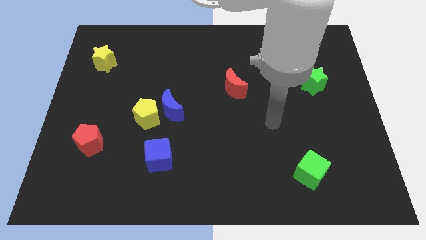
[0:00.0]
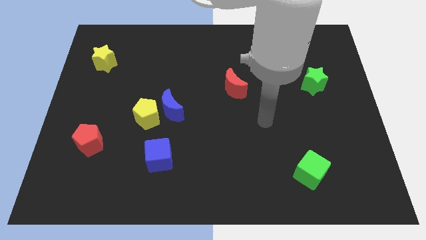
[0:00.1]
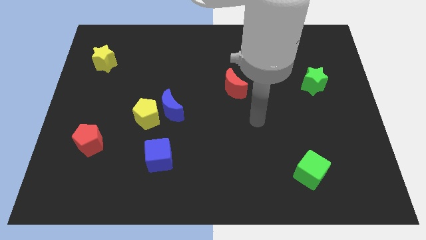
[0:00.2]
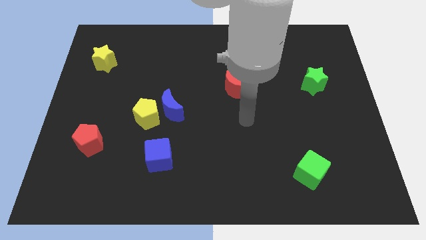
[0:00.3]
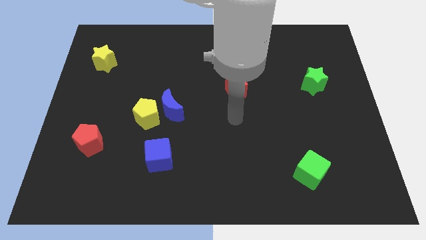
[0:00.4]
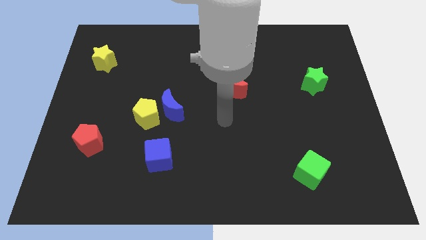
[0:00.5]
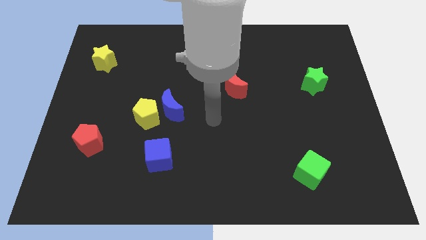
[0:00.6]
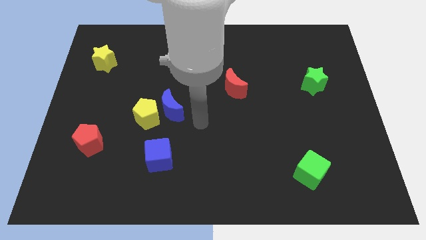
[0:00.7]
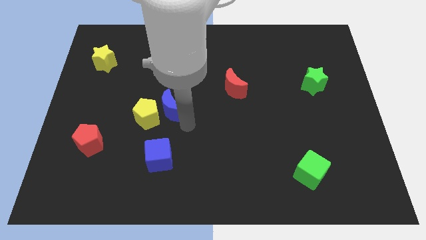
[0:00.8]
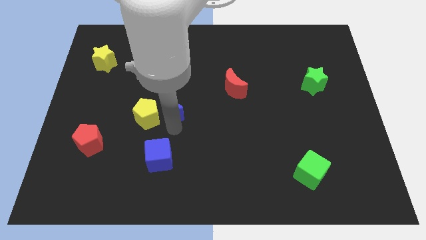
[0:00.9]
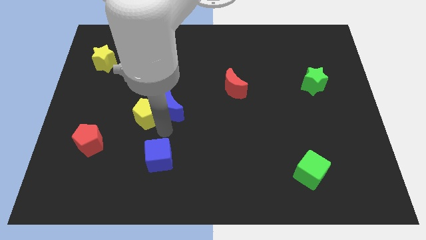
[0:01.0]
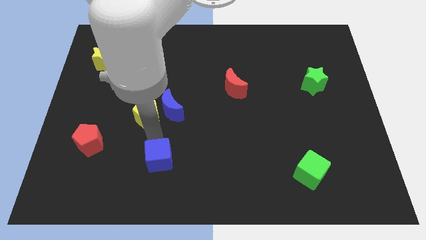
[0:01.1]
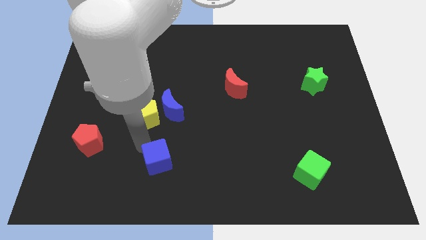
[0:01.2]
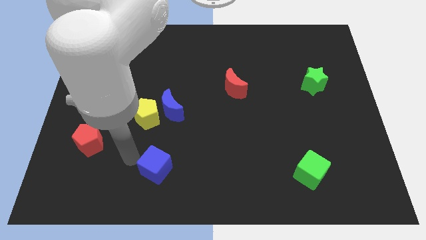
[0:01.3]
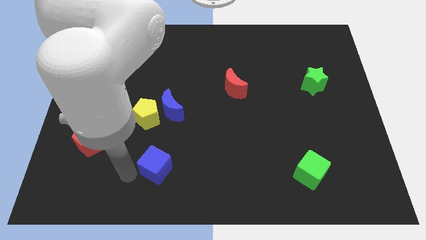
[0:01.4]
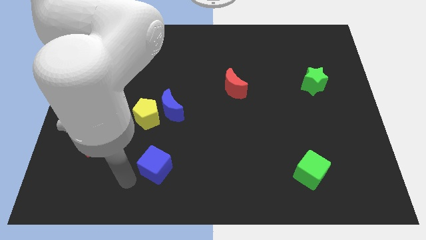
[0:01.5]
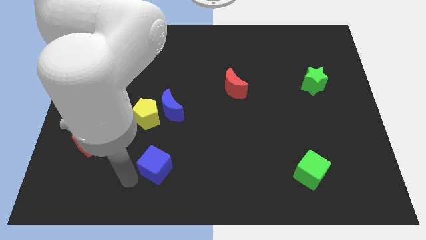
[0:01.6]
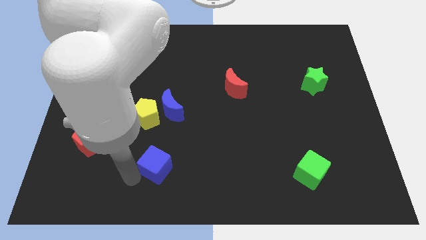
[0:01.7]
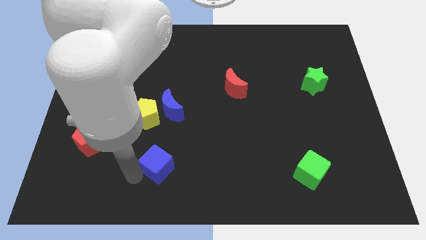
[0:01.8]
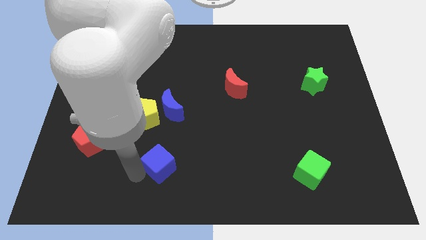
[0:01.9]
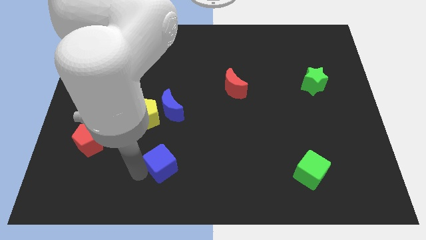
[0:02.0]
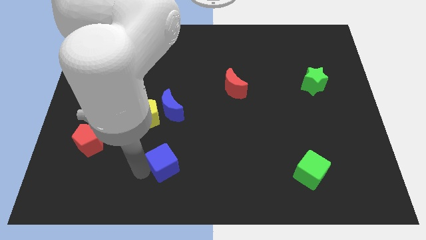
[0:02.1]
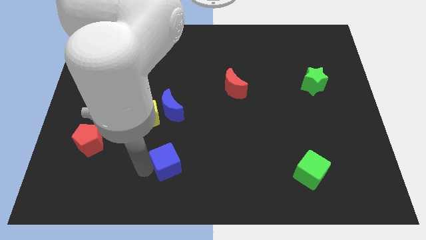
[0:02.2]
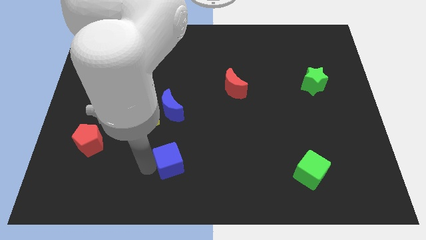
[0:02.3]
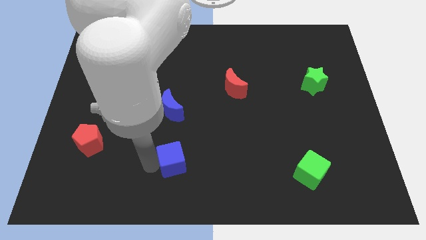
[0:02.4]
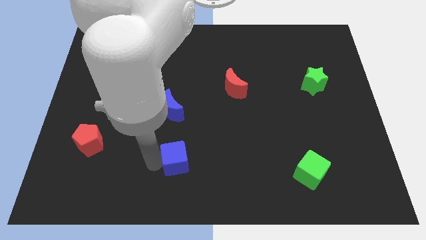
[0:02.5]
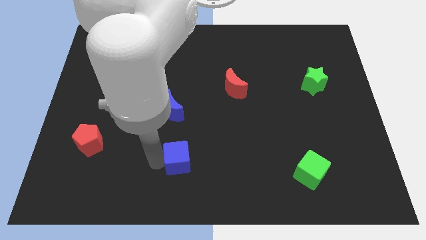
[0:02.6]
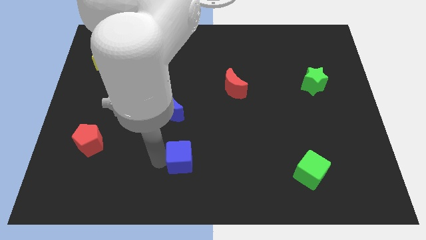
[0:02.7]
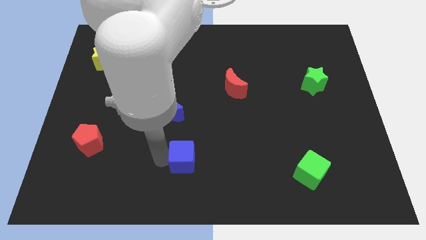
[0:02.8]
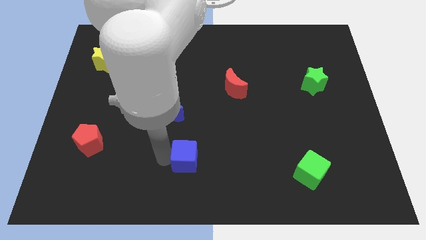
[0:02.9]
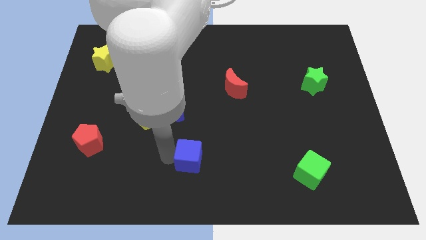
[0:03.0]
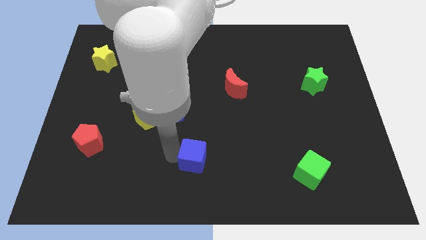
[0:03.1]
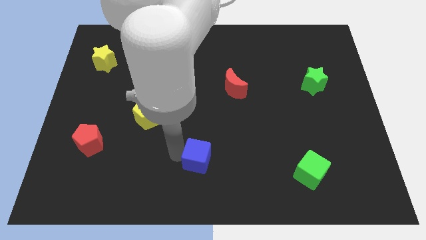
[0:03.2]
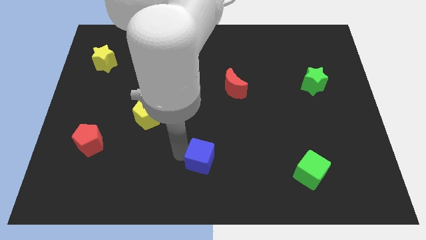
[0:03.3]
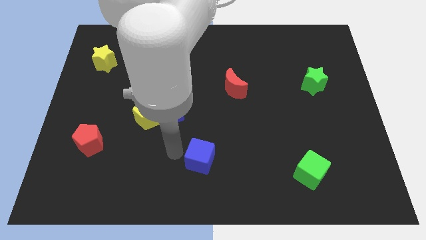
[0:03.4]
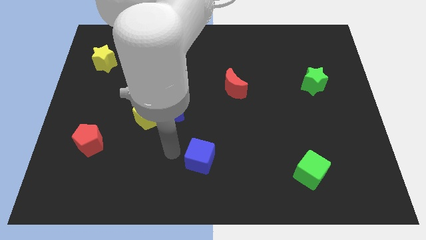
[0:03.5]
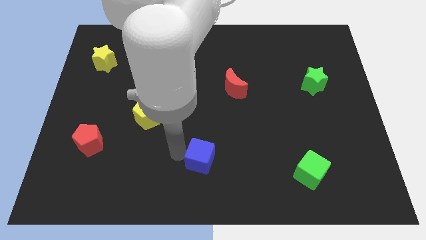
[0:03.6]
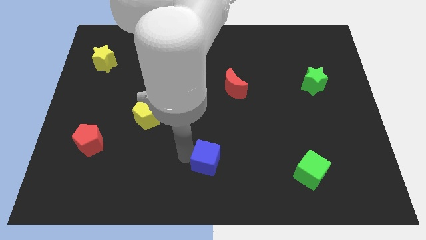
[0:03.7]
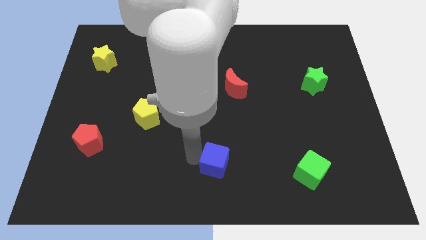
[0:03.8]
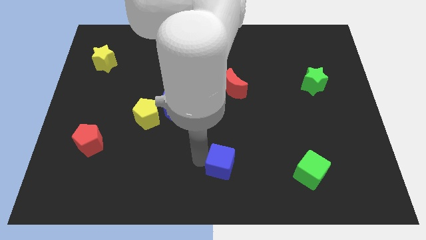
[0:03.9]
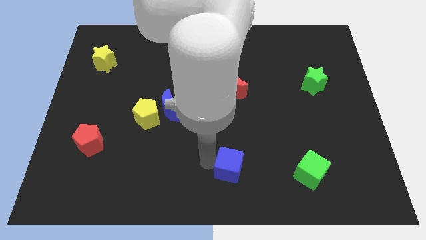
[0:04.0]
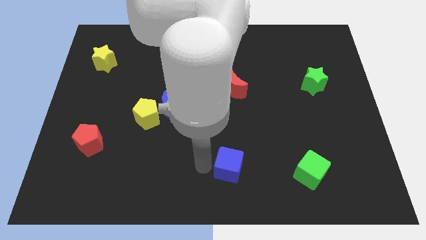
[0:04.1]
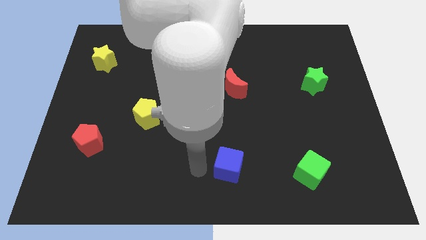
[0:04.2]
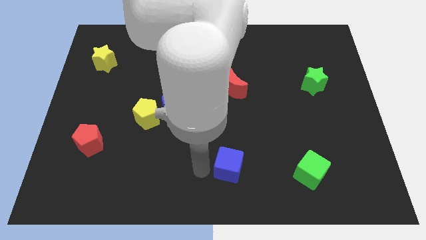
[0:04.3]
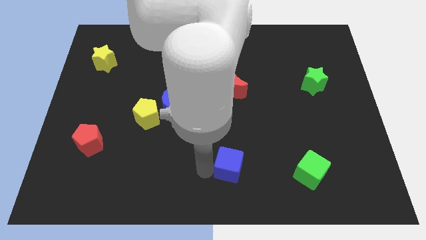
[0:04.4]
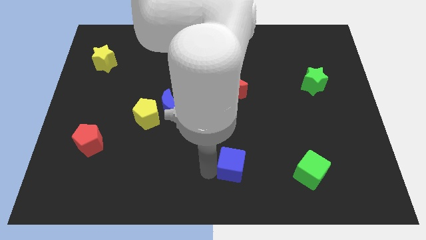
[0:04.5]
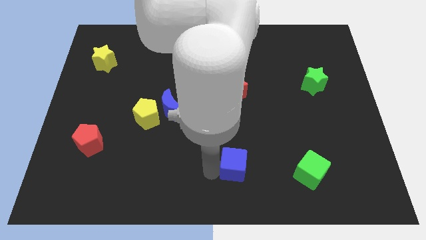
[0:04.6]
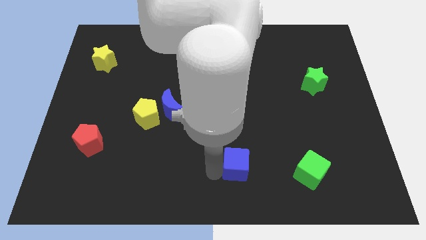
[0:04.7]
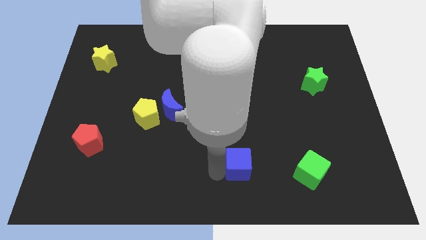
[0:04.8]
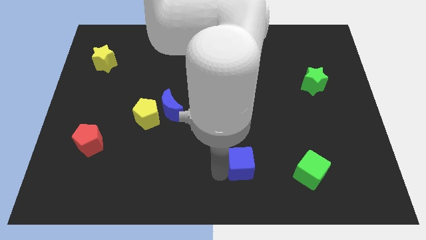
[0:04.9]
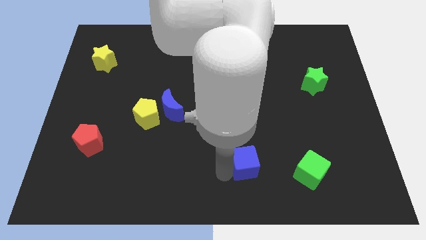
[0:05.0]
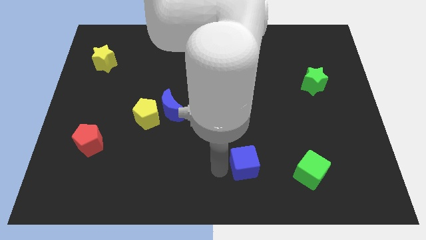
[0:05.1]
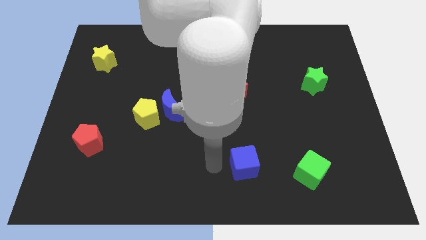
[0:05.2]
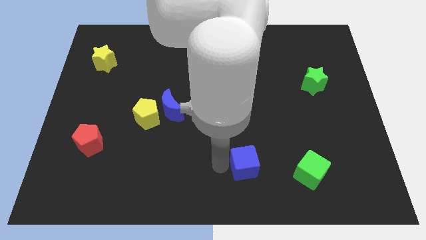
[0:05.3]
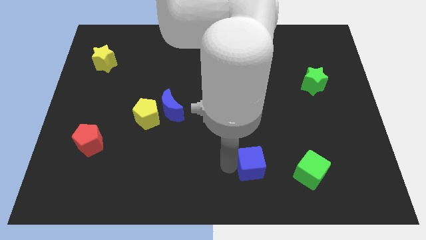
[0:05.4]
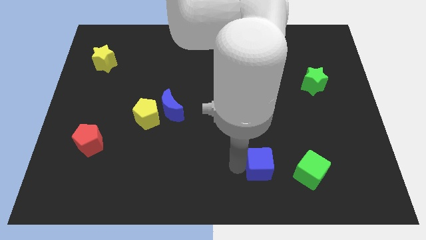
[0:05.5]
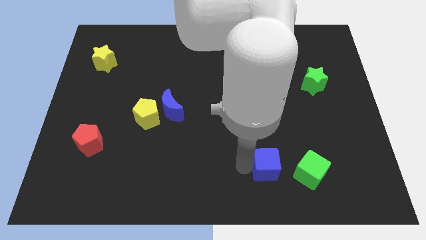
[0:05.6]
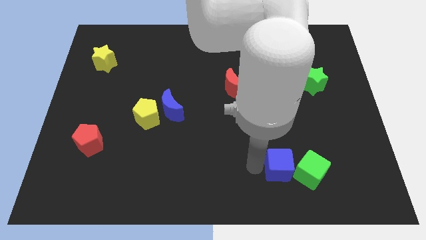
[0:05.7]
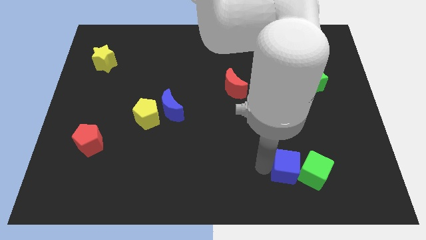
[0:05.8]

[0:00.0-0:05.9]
move the blue cube close to the green cube
